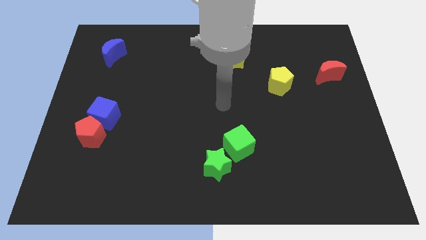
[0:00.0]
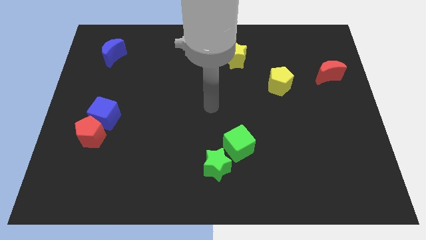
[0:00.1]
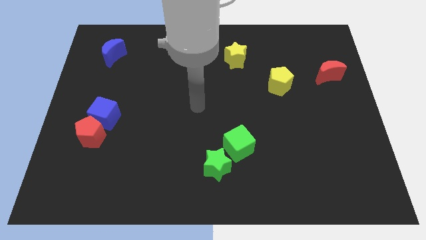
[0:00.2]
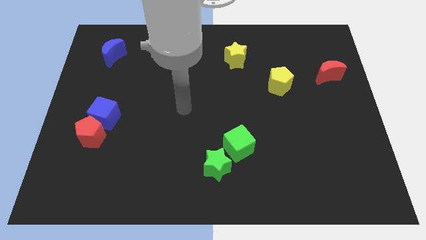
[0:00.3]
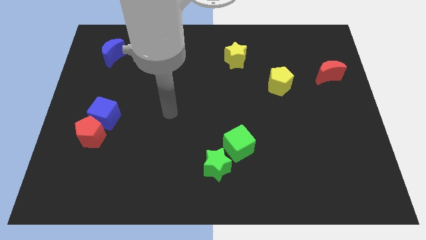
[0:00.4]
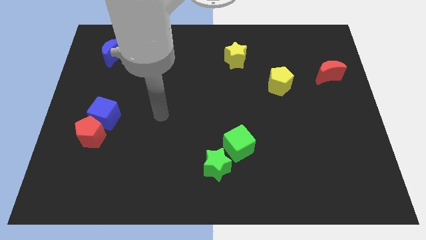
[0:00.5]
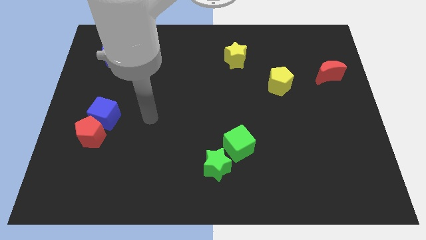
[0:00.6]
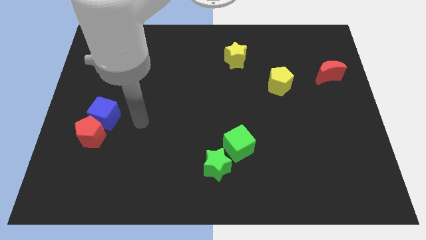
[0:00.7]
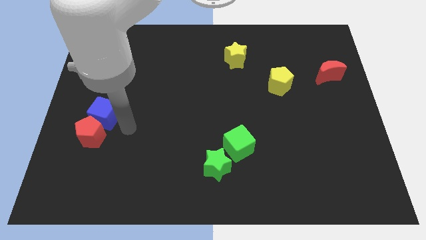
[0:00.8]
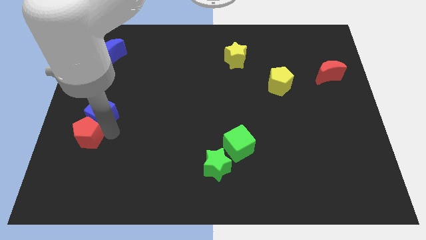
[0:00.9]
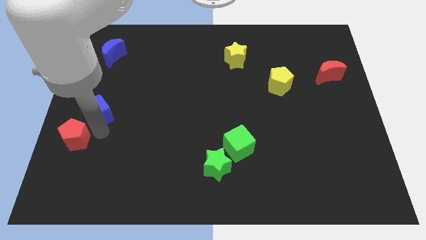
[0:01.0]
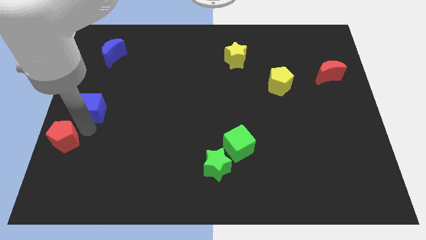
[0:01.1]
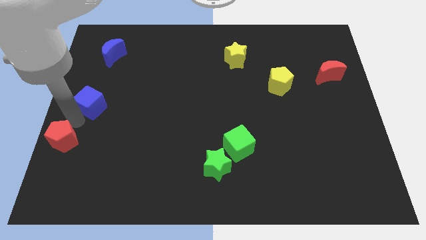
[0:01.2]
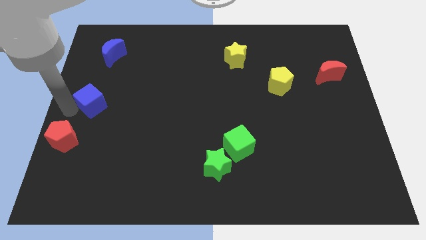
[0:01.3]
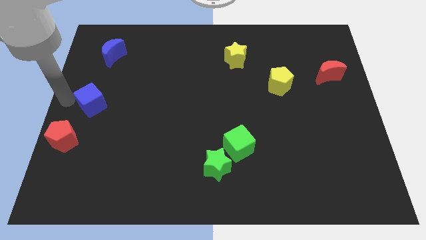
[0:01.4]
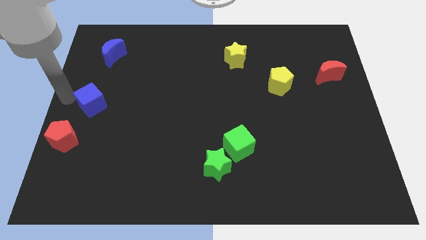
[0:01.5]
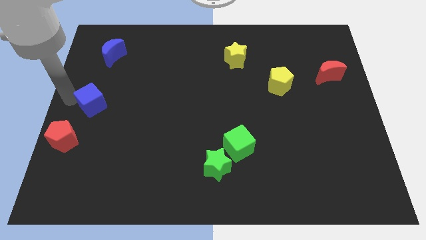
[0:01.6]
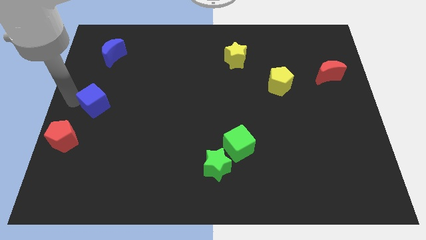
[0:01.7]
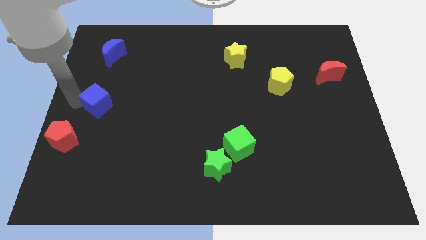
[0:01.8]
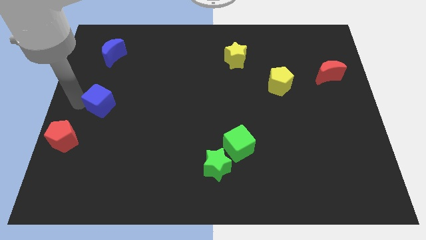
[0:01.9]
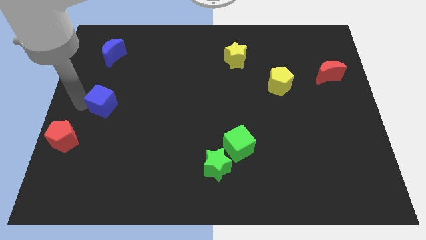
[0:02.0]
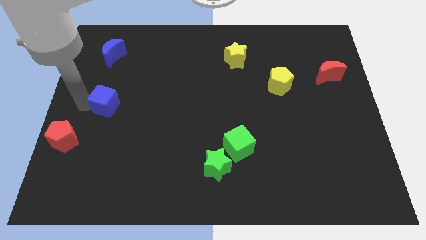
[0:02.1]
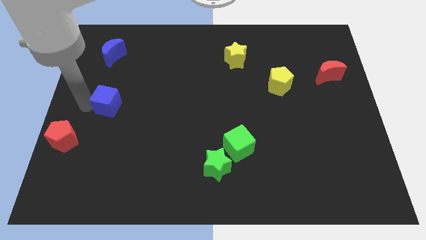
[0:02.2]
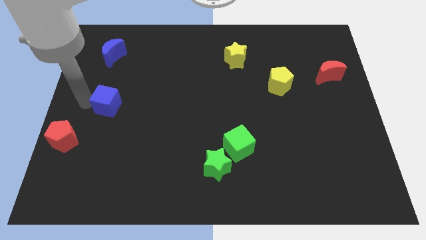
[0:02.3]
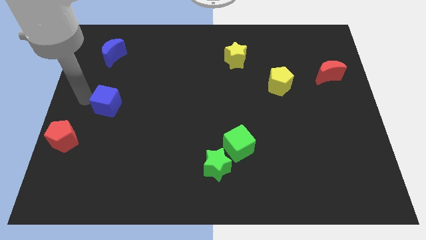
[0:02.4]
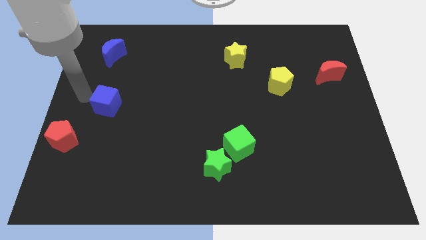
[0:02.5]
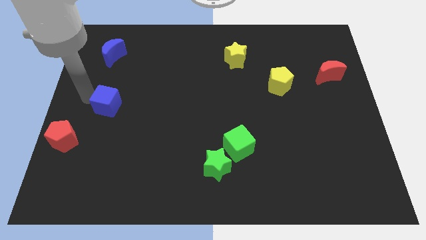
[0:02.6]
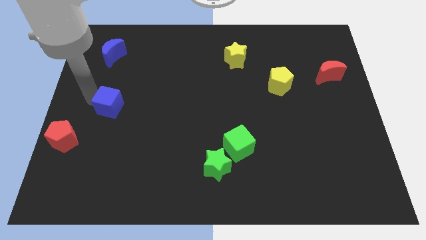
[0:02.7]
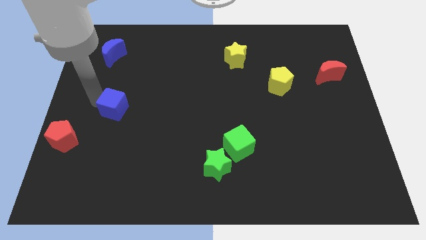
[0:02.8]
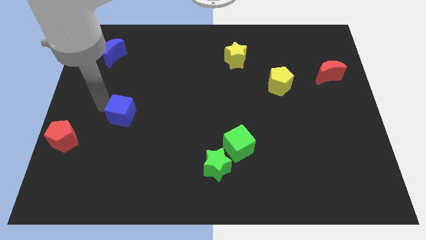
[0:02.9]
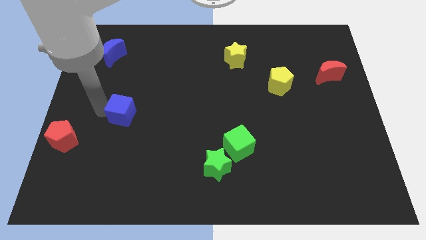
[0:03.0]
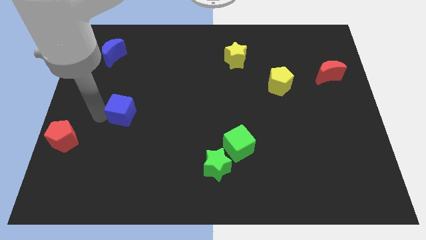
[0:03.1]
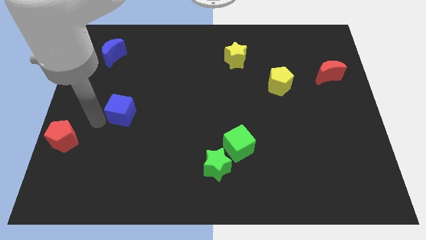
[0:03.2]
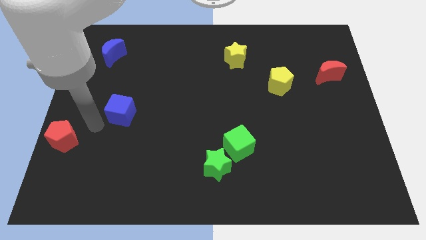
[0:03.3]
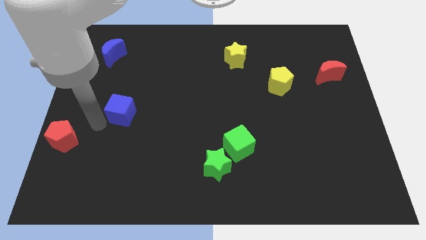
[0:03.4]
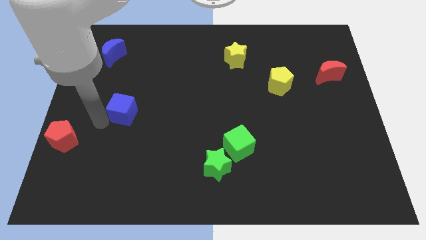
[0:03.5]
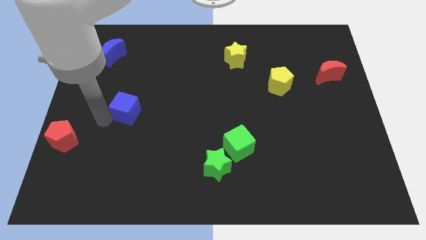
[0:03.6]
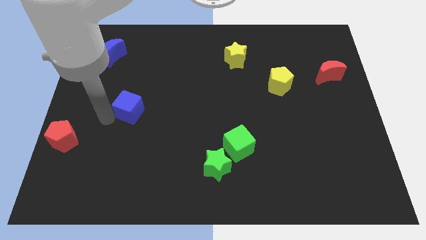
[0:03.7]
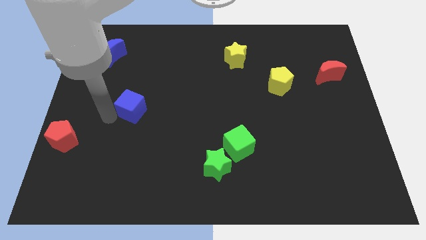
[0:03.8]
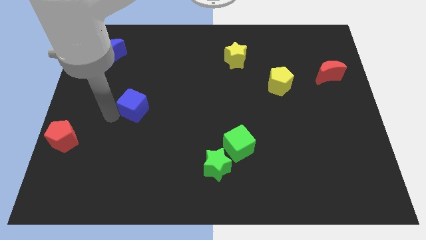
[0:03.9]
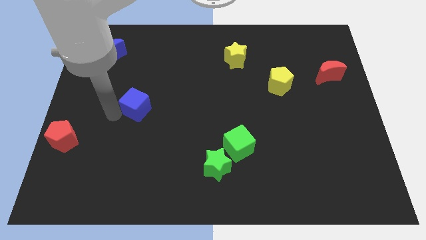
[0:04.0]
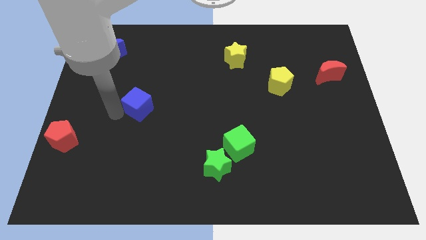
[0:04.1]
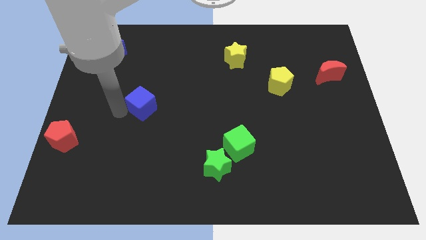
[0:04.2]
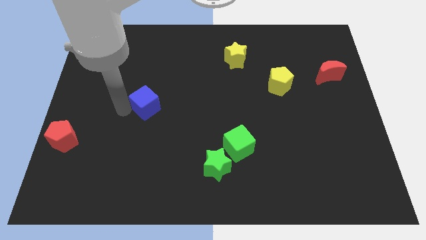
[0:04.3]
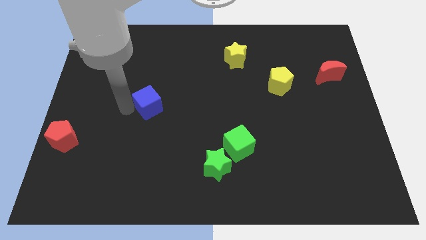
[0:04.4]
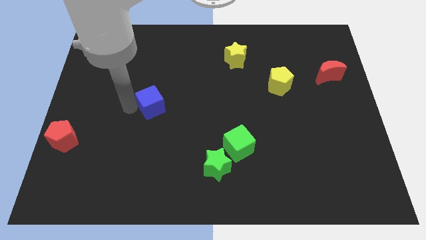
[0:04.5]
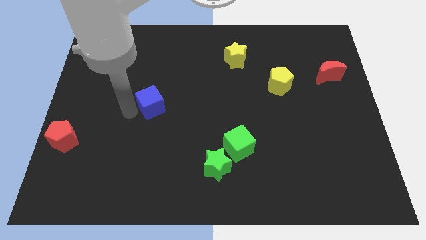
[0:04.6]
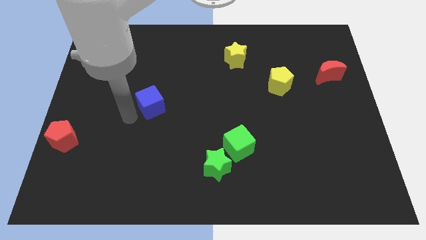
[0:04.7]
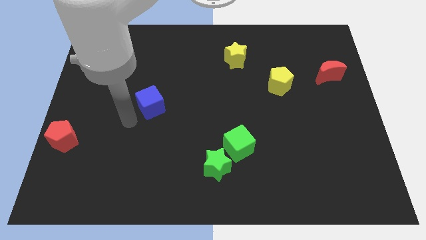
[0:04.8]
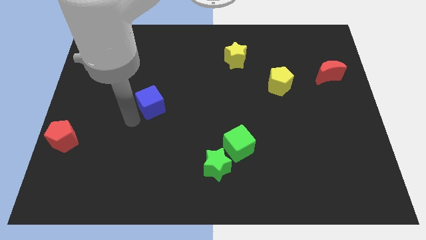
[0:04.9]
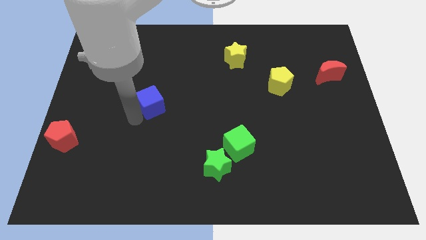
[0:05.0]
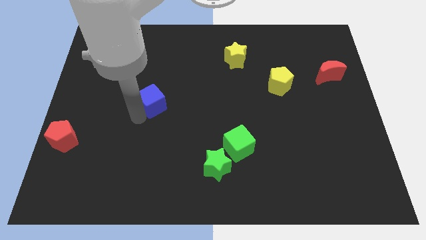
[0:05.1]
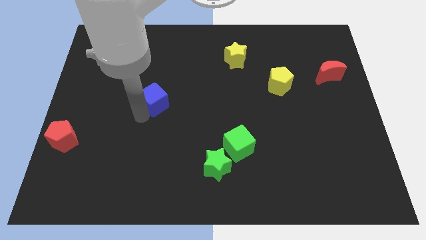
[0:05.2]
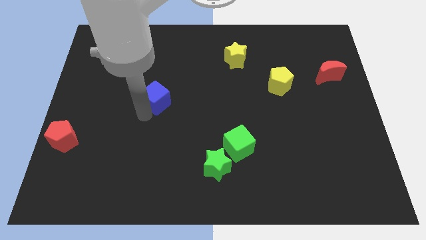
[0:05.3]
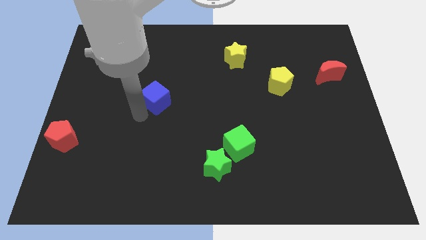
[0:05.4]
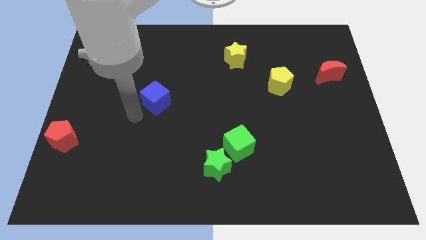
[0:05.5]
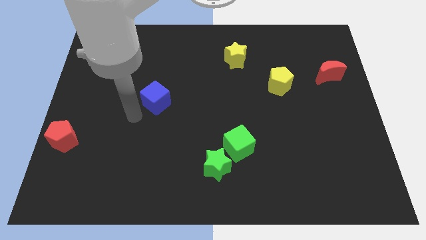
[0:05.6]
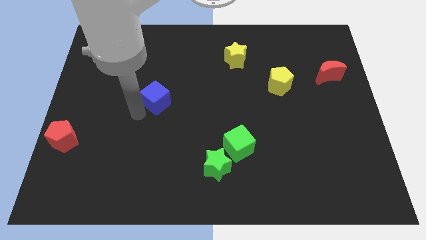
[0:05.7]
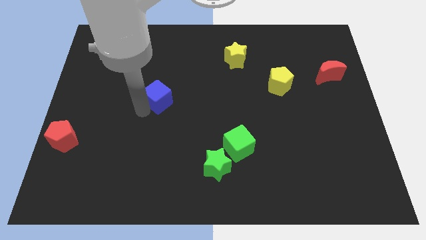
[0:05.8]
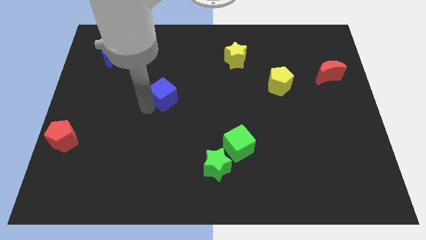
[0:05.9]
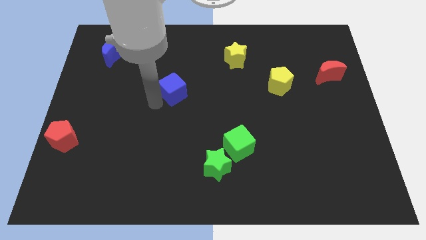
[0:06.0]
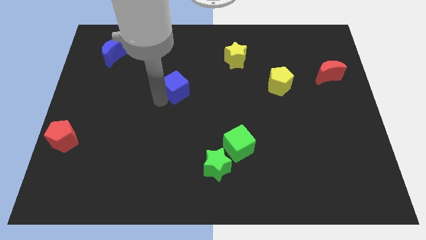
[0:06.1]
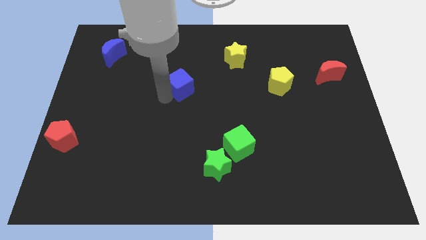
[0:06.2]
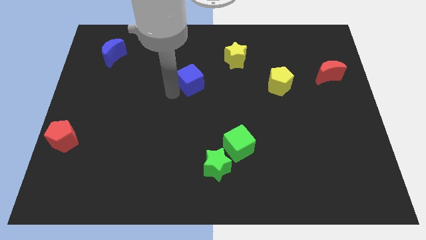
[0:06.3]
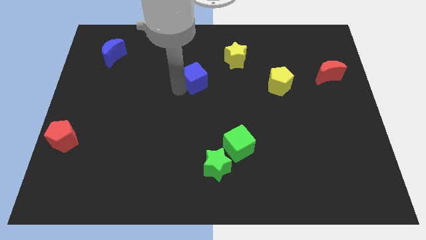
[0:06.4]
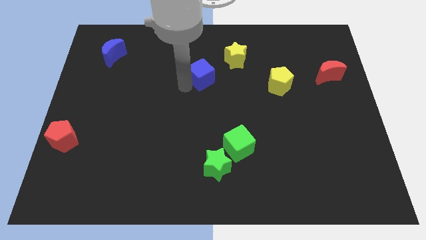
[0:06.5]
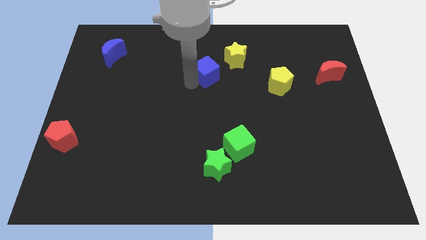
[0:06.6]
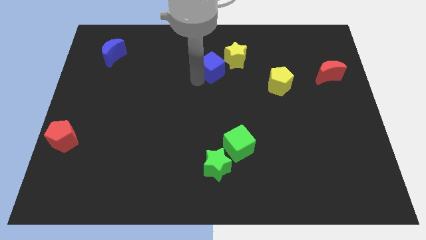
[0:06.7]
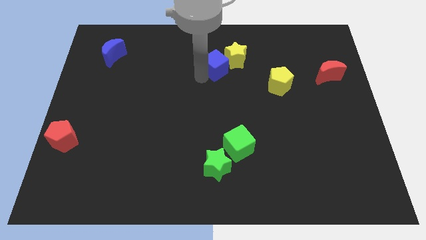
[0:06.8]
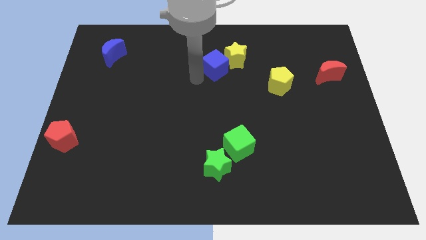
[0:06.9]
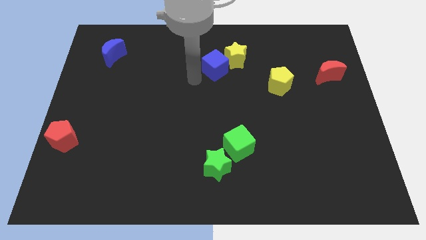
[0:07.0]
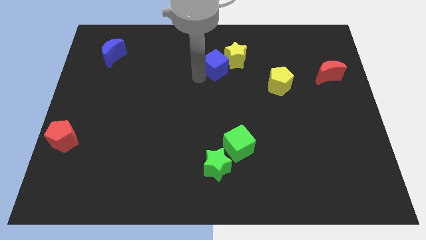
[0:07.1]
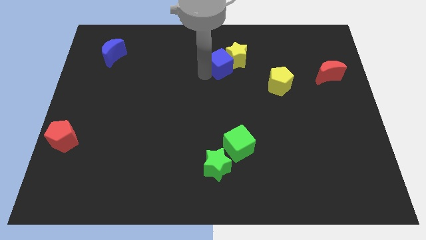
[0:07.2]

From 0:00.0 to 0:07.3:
push the blue cube to the yellow star
